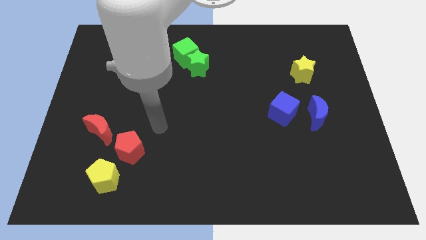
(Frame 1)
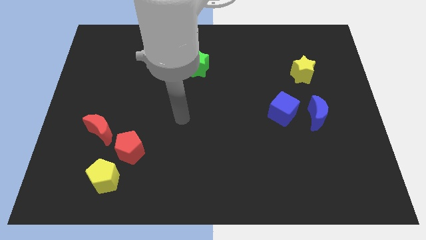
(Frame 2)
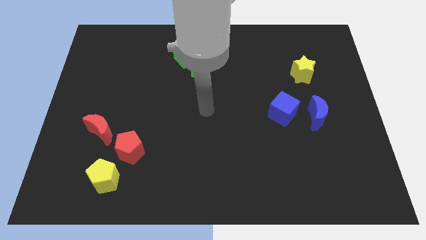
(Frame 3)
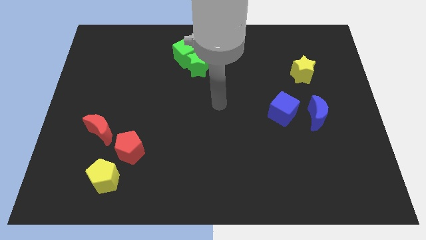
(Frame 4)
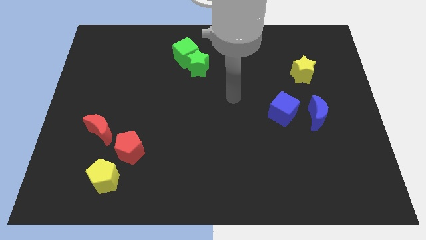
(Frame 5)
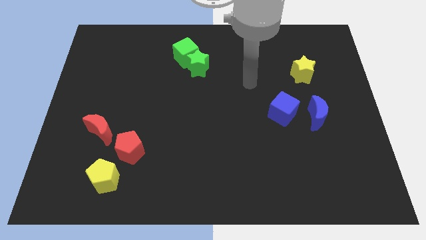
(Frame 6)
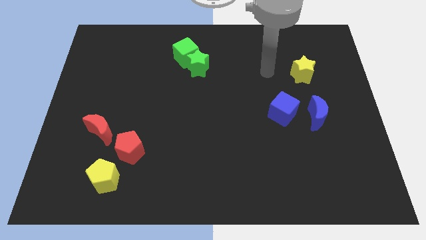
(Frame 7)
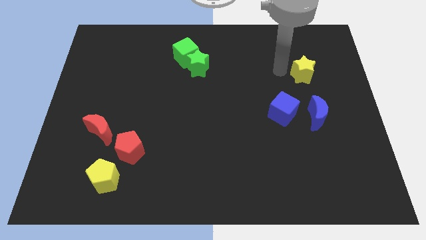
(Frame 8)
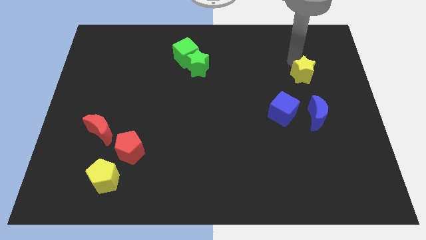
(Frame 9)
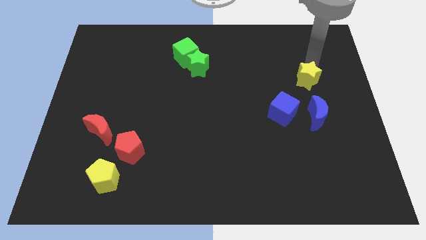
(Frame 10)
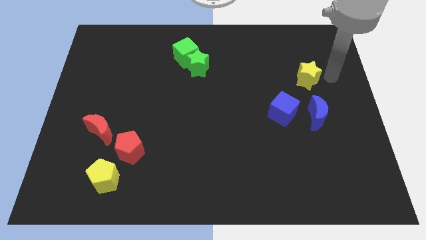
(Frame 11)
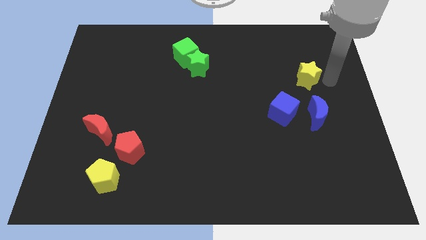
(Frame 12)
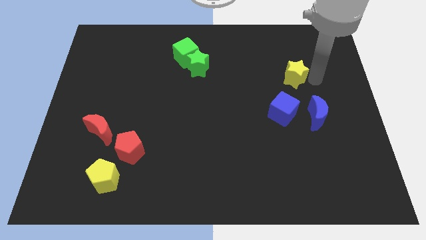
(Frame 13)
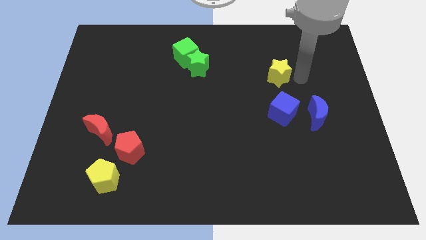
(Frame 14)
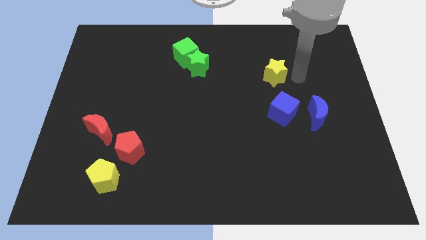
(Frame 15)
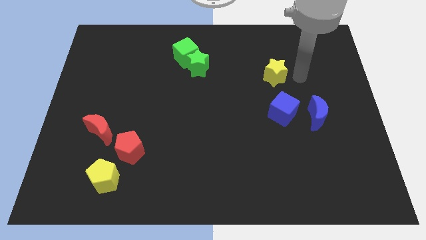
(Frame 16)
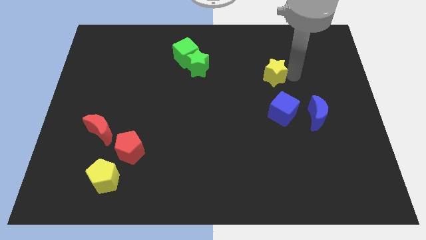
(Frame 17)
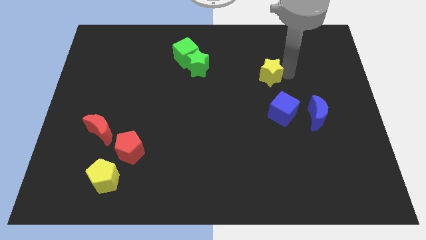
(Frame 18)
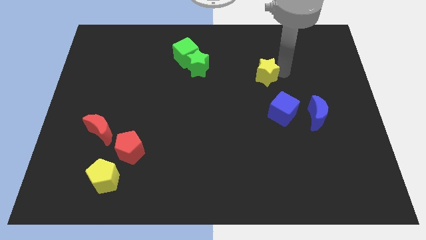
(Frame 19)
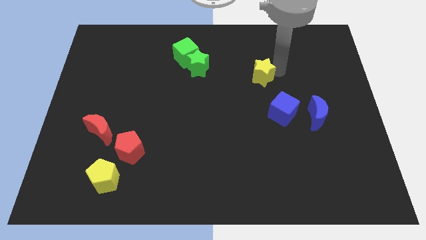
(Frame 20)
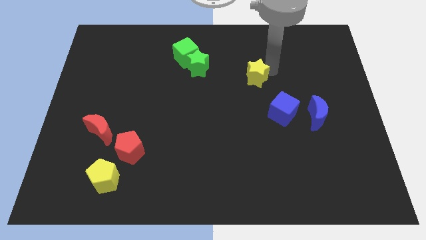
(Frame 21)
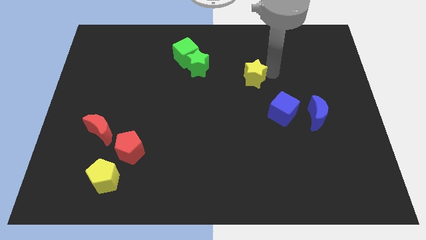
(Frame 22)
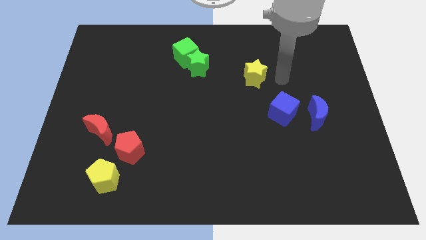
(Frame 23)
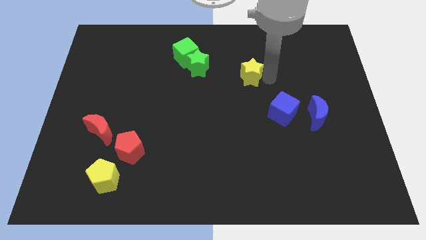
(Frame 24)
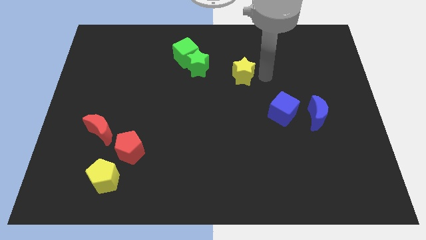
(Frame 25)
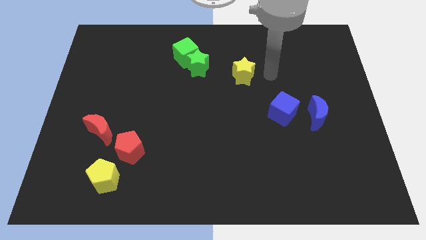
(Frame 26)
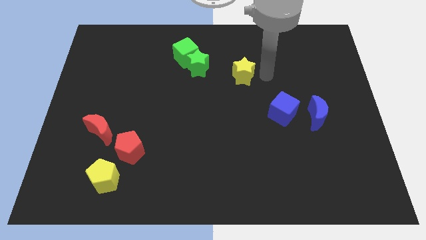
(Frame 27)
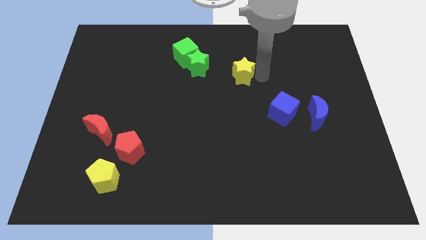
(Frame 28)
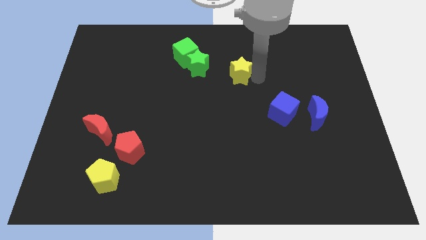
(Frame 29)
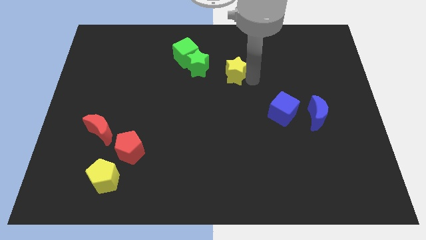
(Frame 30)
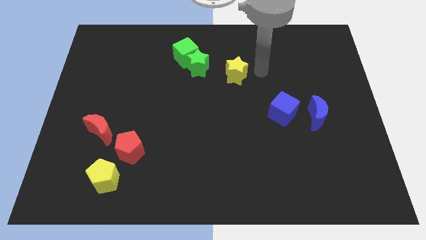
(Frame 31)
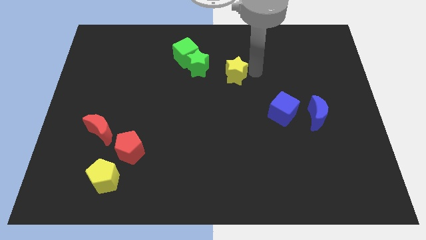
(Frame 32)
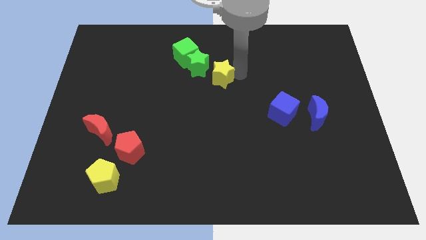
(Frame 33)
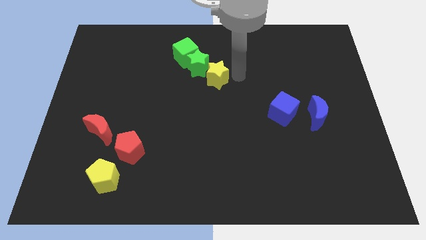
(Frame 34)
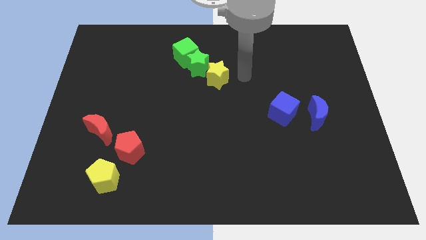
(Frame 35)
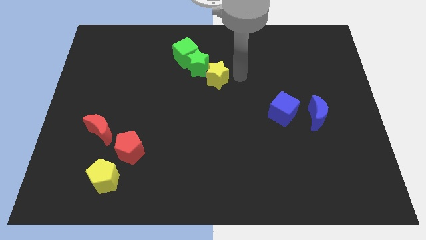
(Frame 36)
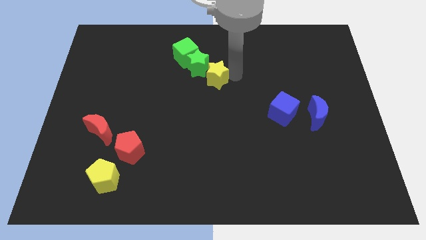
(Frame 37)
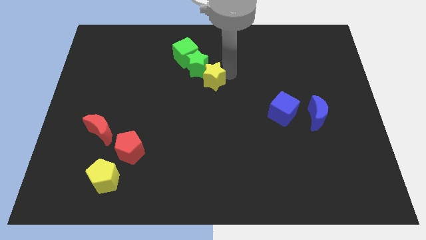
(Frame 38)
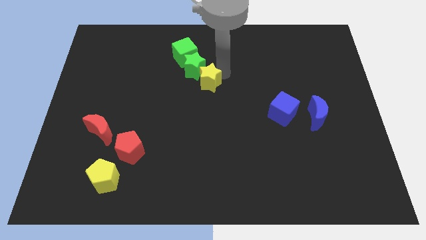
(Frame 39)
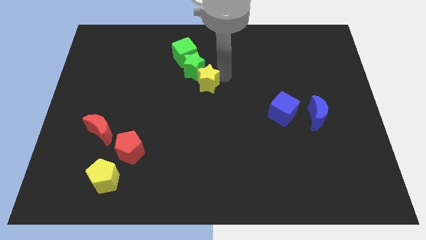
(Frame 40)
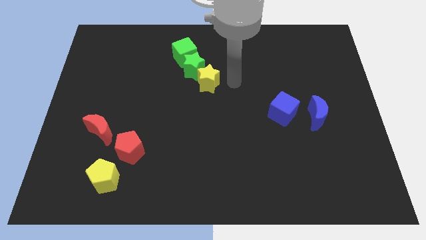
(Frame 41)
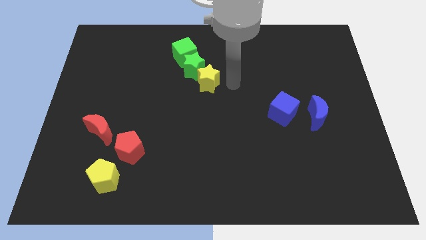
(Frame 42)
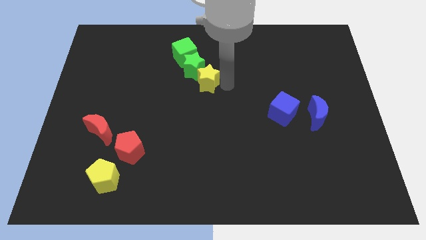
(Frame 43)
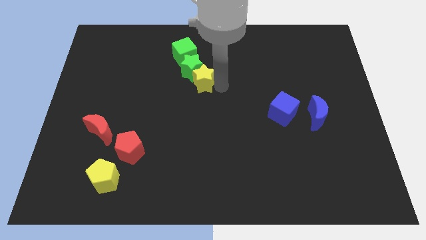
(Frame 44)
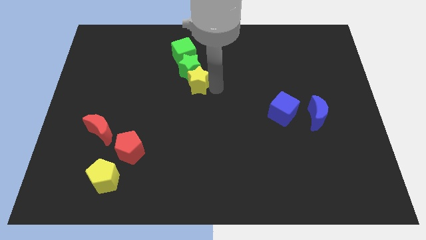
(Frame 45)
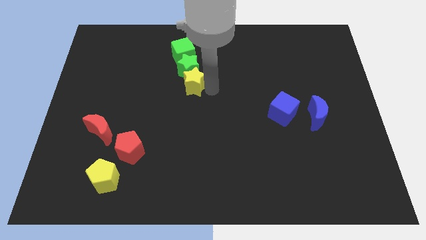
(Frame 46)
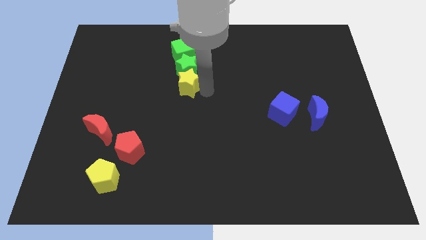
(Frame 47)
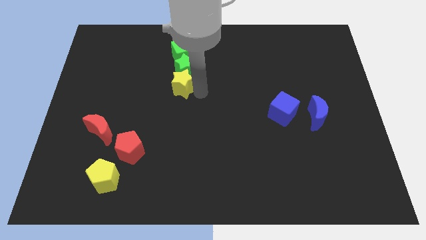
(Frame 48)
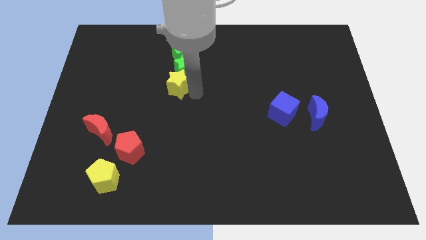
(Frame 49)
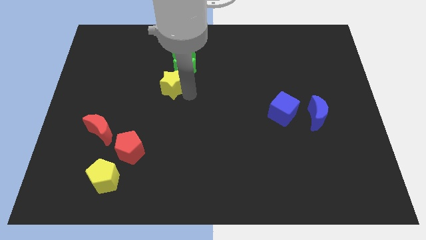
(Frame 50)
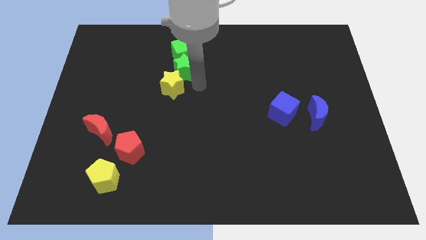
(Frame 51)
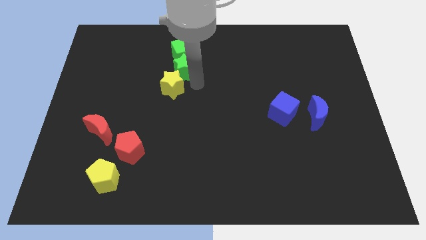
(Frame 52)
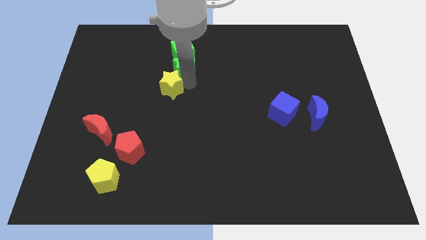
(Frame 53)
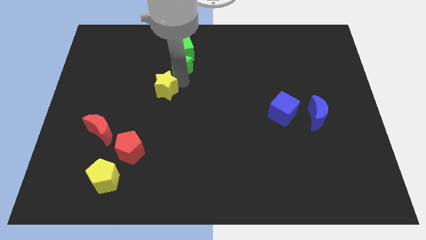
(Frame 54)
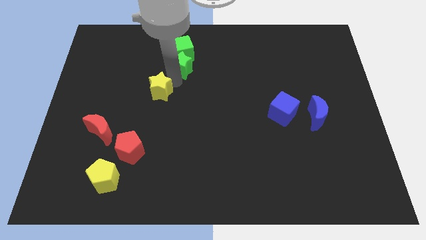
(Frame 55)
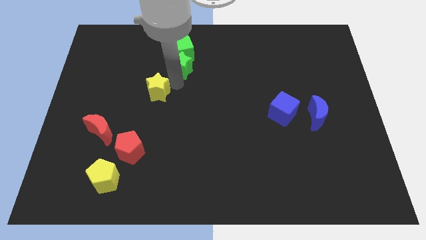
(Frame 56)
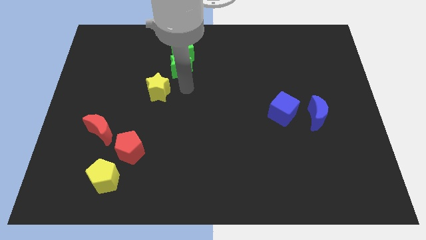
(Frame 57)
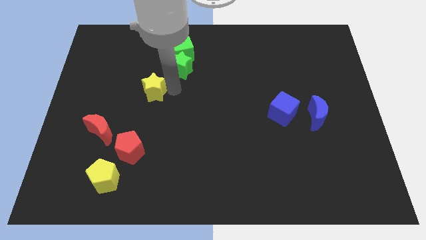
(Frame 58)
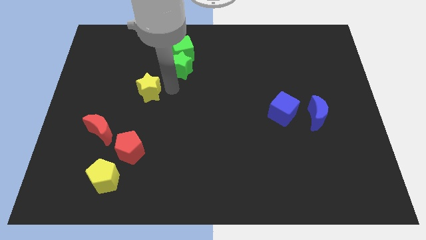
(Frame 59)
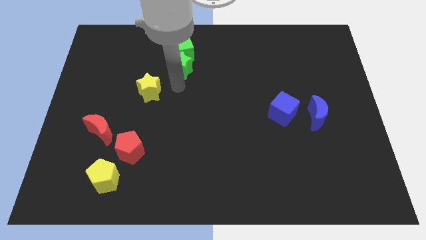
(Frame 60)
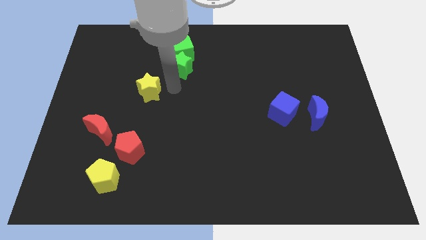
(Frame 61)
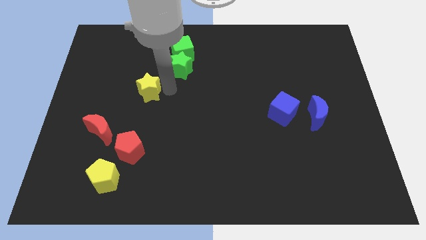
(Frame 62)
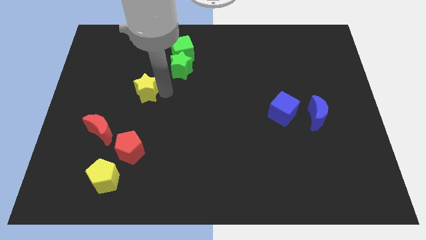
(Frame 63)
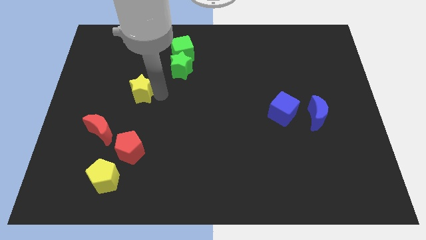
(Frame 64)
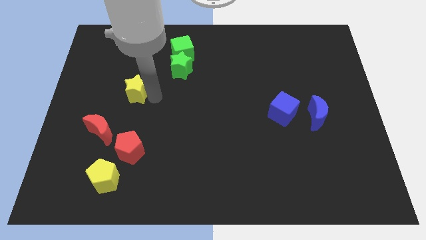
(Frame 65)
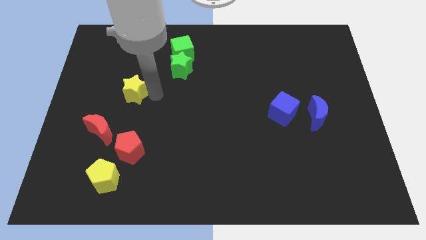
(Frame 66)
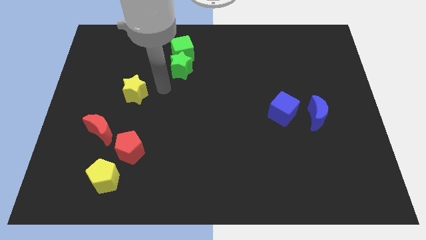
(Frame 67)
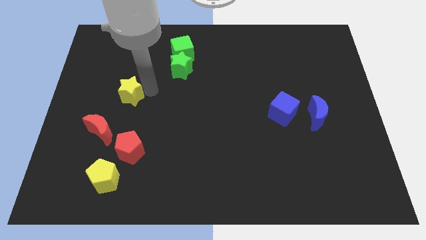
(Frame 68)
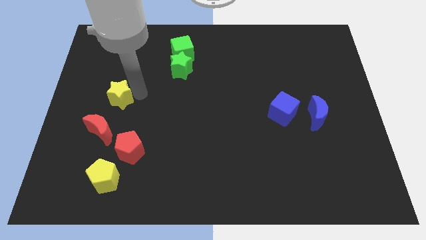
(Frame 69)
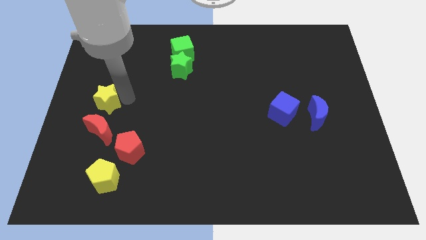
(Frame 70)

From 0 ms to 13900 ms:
move the yellow star to the left side of the board
